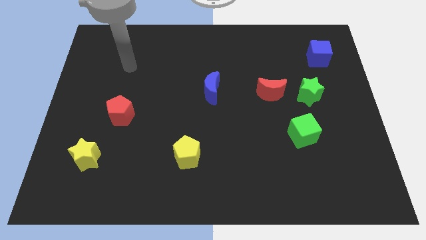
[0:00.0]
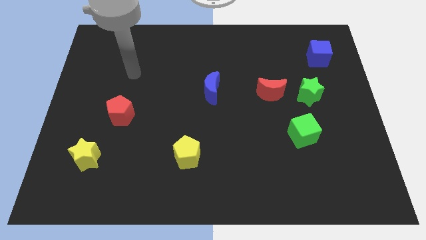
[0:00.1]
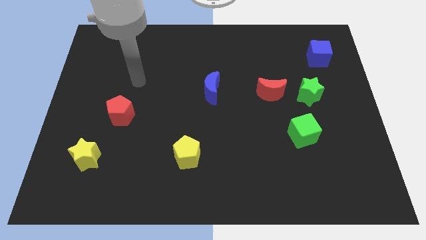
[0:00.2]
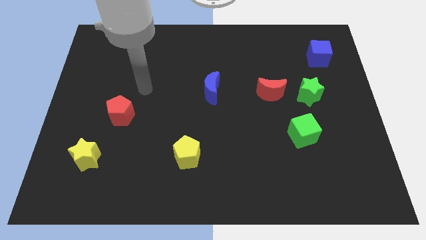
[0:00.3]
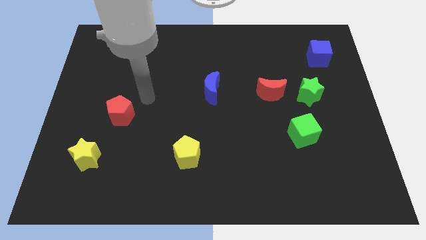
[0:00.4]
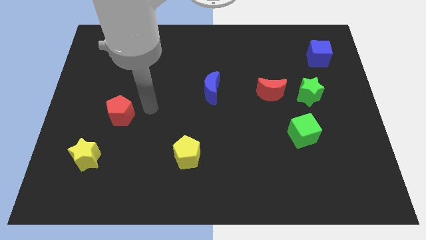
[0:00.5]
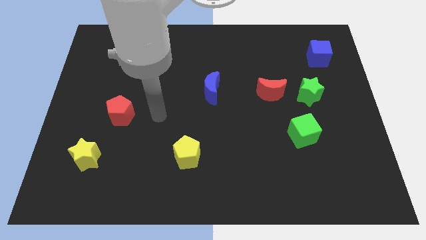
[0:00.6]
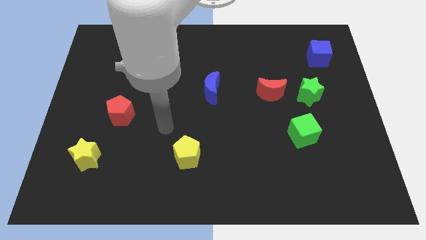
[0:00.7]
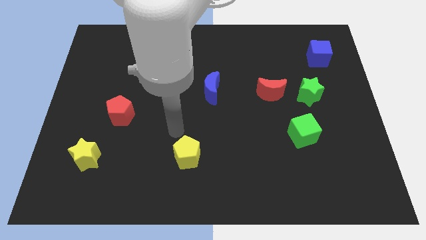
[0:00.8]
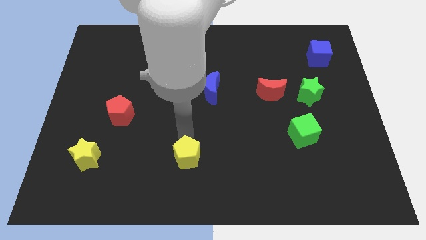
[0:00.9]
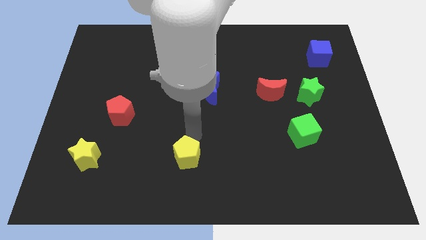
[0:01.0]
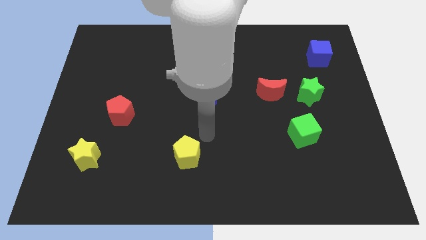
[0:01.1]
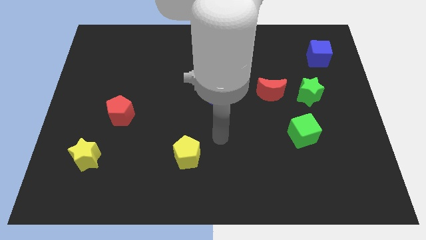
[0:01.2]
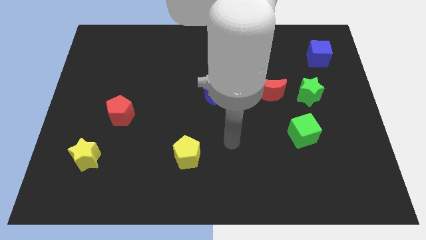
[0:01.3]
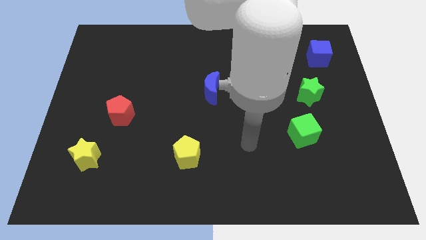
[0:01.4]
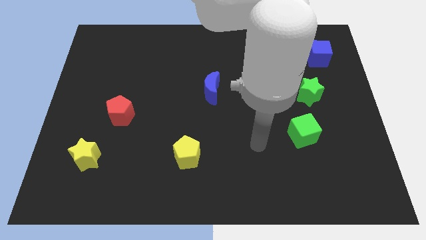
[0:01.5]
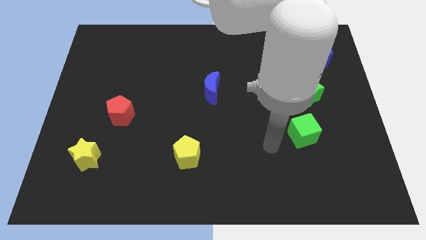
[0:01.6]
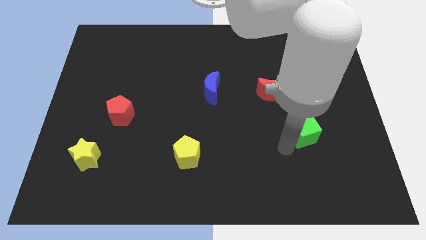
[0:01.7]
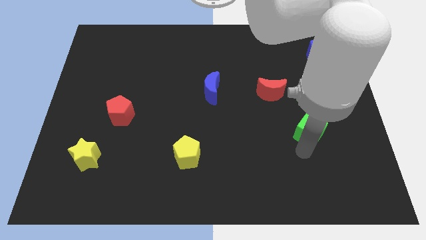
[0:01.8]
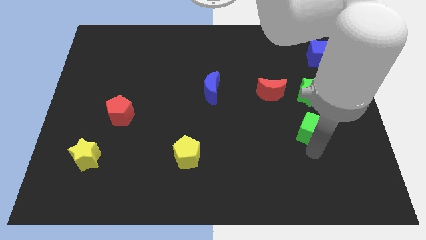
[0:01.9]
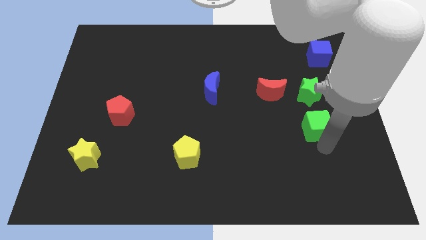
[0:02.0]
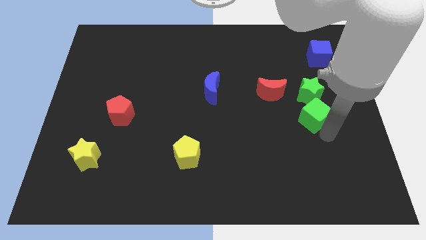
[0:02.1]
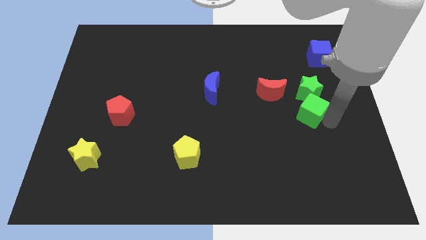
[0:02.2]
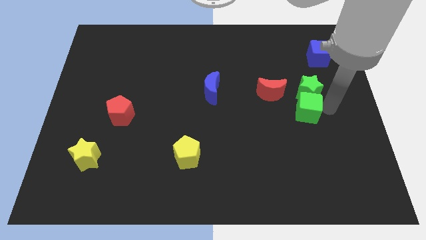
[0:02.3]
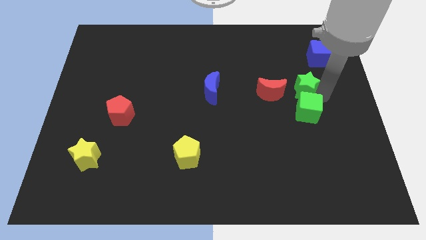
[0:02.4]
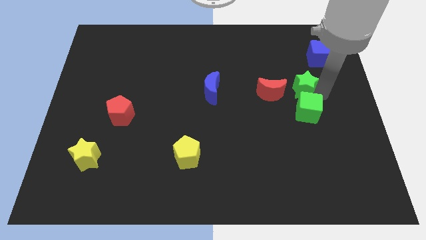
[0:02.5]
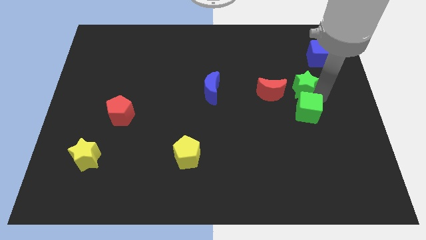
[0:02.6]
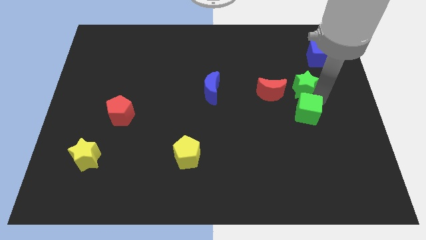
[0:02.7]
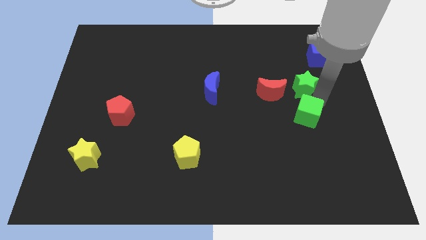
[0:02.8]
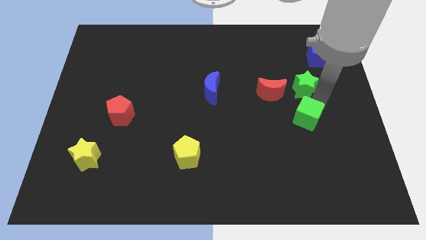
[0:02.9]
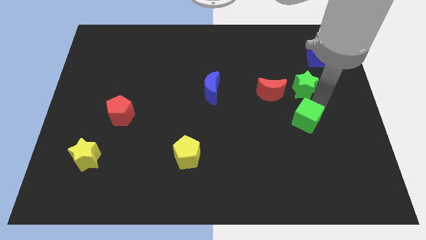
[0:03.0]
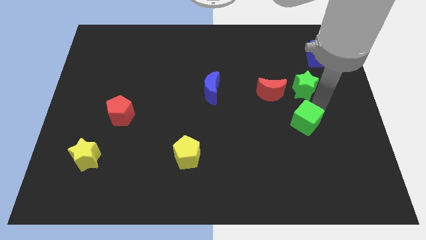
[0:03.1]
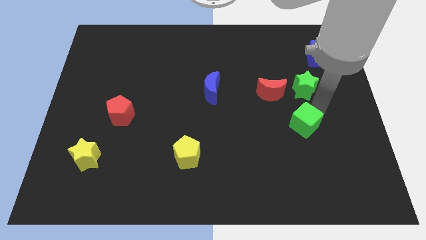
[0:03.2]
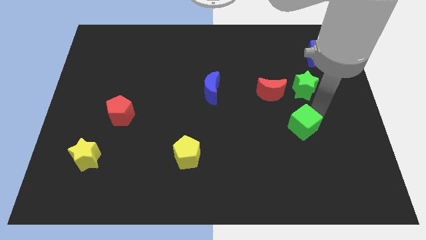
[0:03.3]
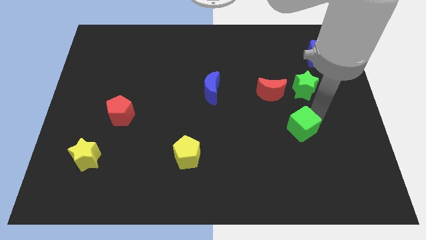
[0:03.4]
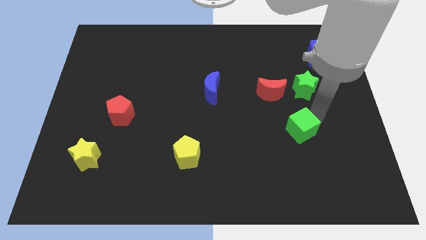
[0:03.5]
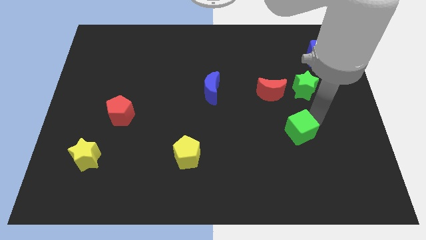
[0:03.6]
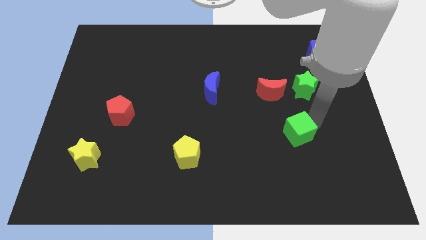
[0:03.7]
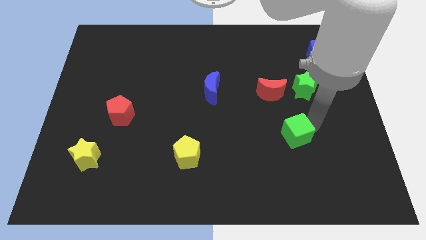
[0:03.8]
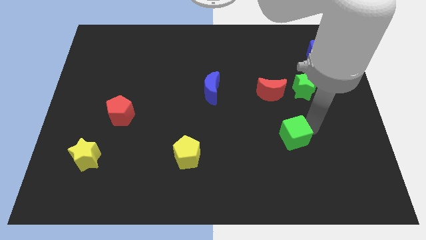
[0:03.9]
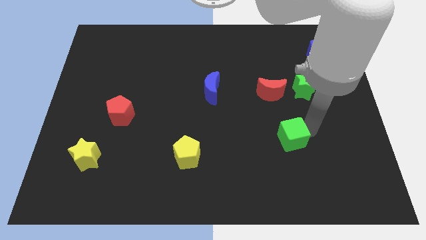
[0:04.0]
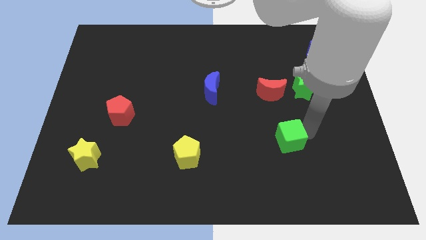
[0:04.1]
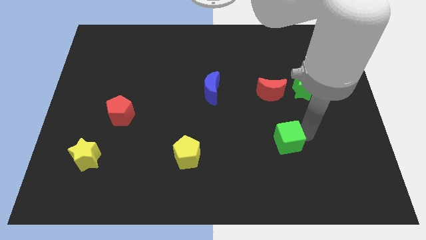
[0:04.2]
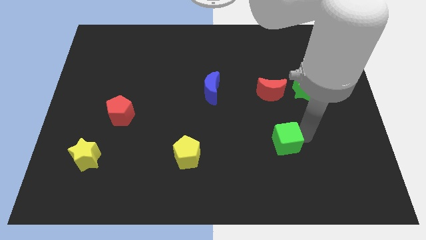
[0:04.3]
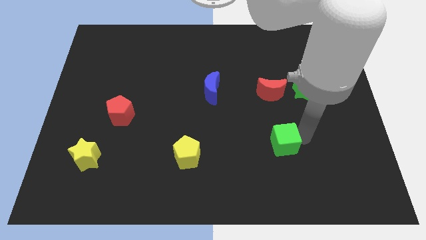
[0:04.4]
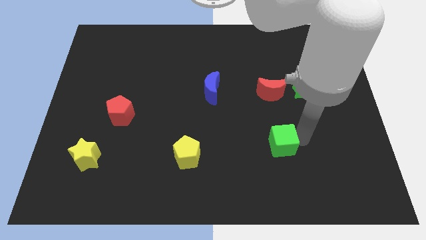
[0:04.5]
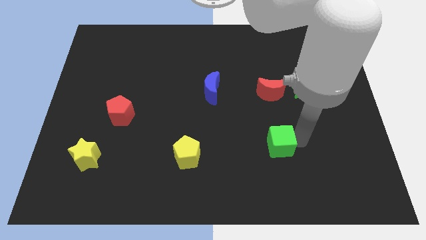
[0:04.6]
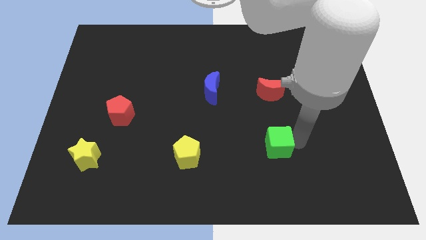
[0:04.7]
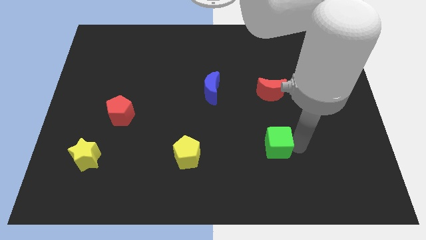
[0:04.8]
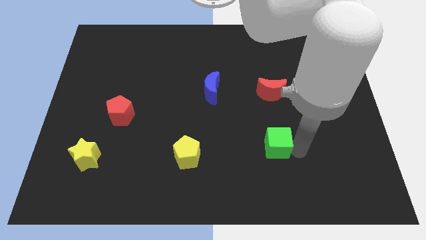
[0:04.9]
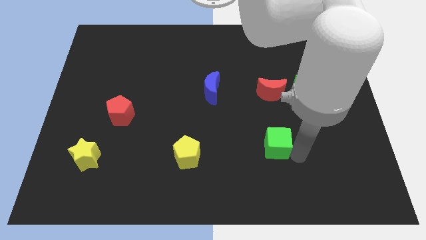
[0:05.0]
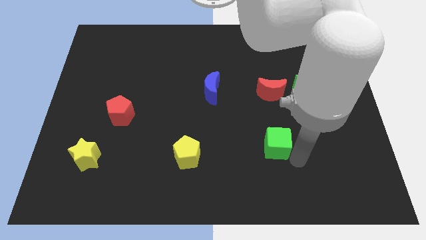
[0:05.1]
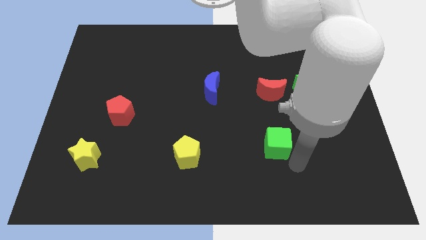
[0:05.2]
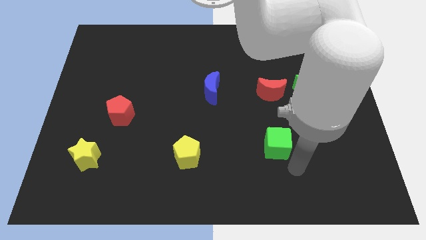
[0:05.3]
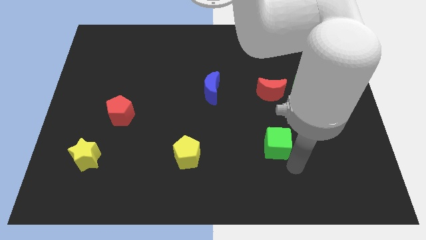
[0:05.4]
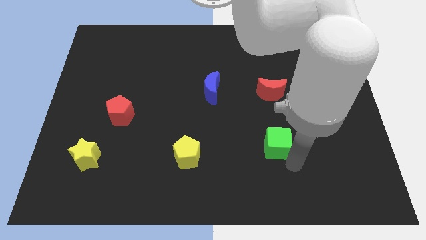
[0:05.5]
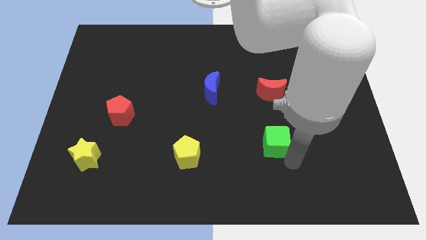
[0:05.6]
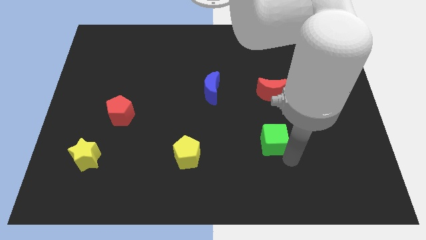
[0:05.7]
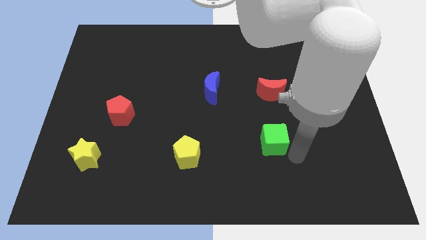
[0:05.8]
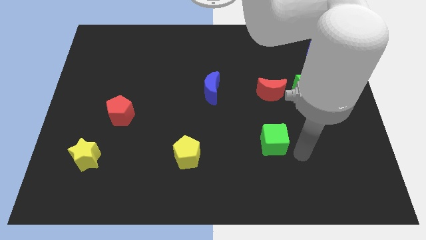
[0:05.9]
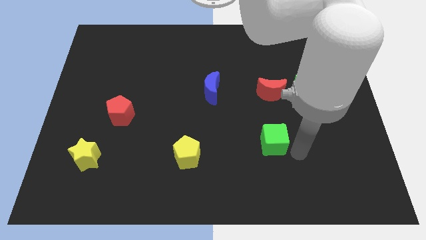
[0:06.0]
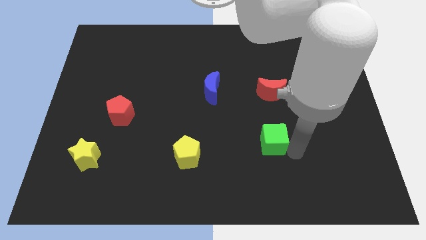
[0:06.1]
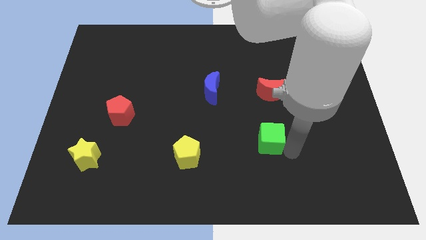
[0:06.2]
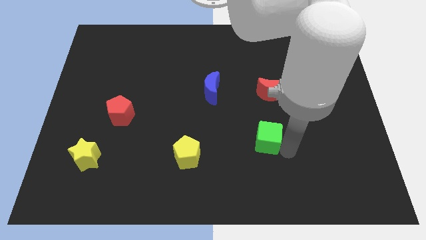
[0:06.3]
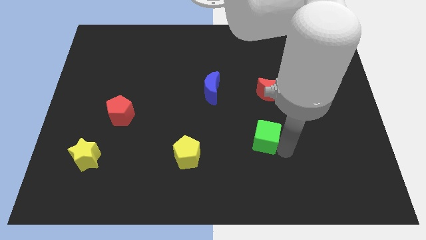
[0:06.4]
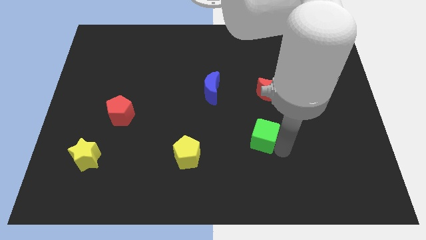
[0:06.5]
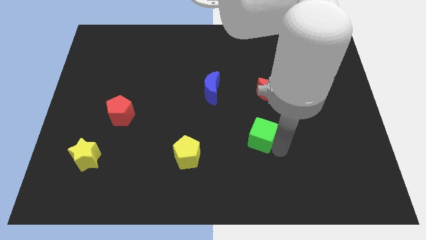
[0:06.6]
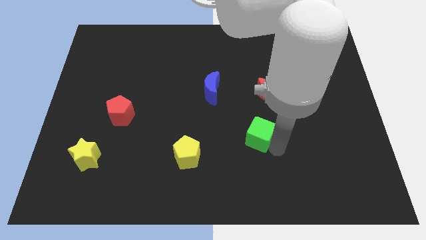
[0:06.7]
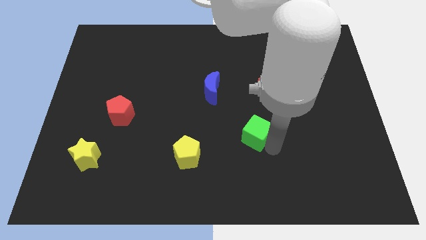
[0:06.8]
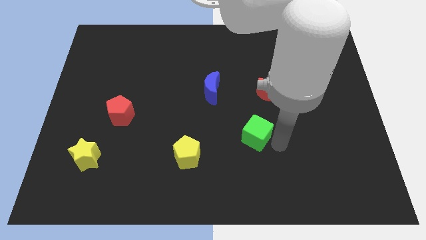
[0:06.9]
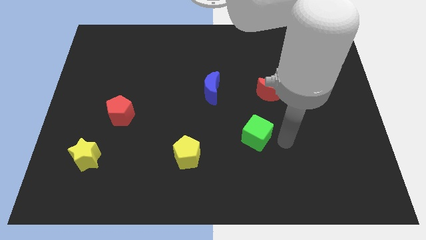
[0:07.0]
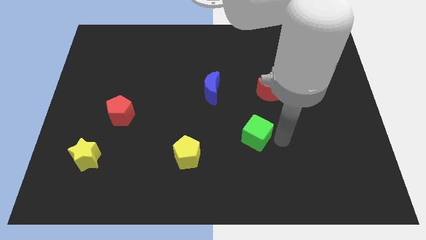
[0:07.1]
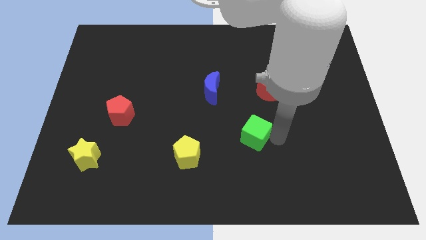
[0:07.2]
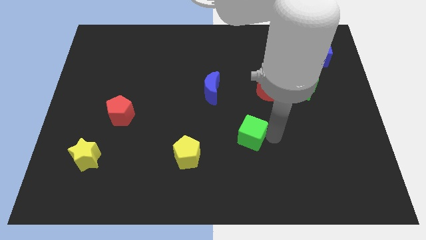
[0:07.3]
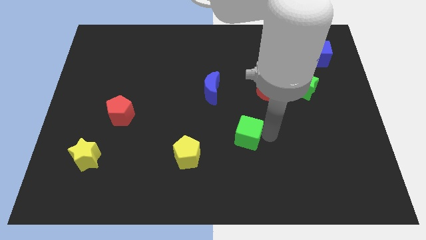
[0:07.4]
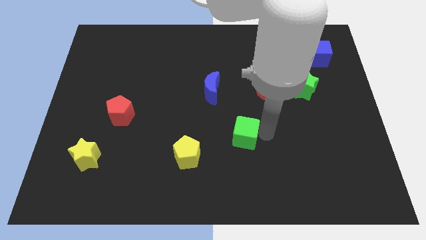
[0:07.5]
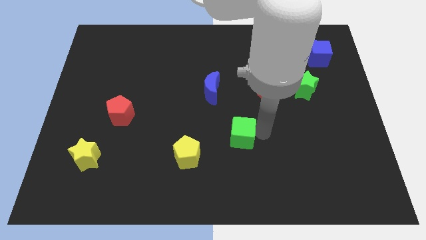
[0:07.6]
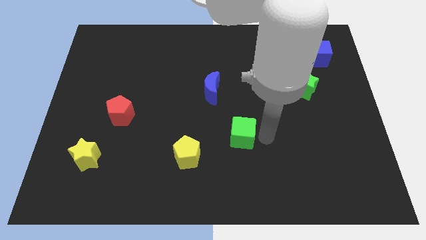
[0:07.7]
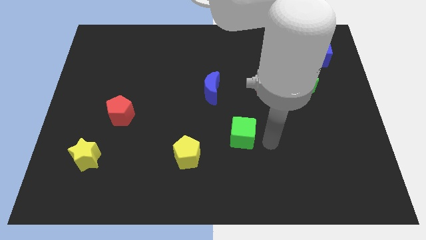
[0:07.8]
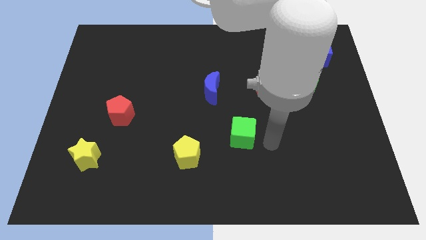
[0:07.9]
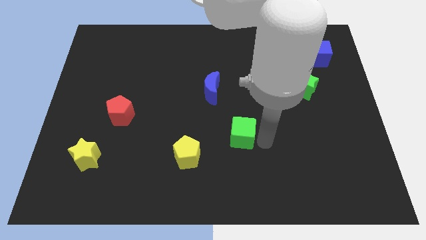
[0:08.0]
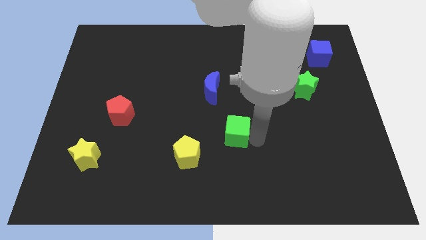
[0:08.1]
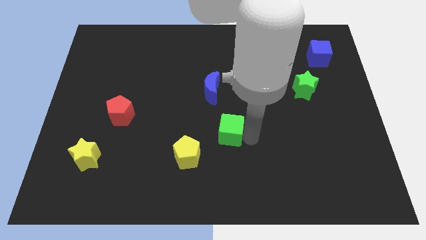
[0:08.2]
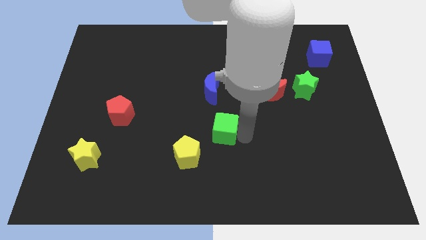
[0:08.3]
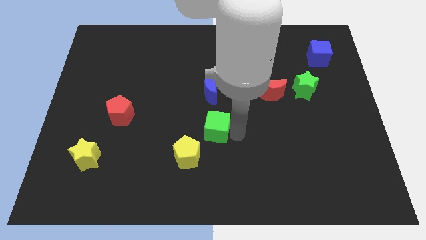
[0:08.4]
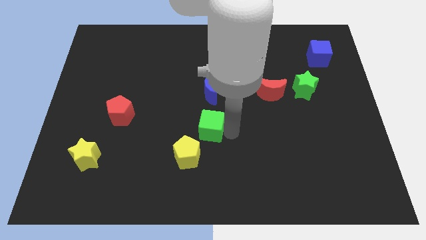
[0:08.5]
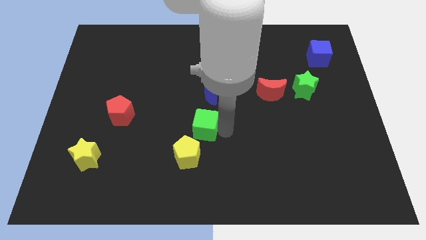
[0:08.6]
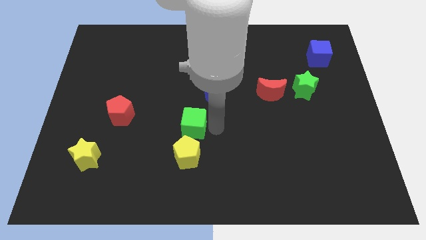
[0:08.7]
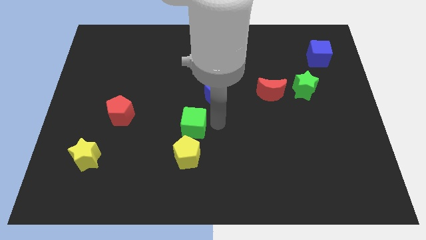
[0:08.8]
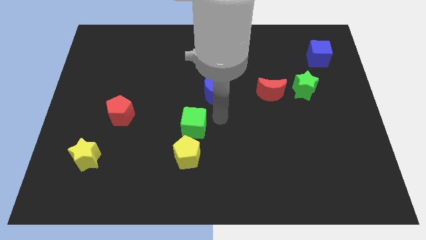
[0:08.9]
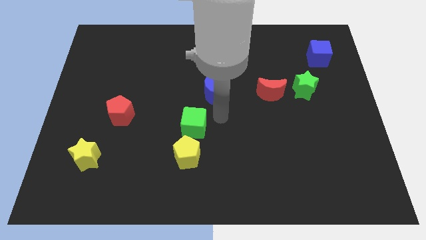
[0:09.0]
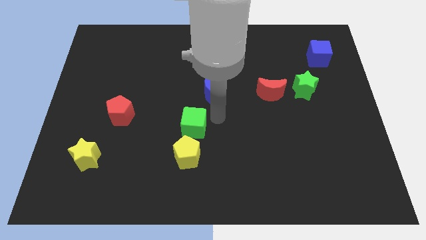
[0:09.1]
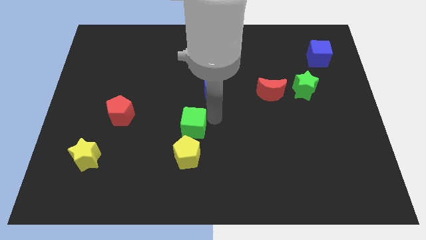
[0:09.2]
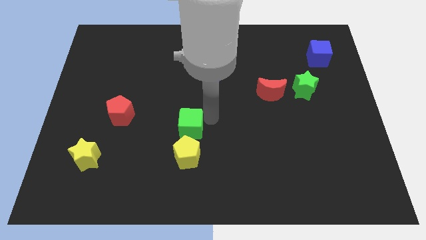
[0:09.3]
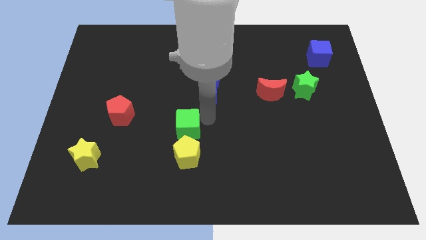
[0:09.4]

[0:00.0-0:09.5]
push the green cube to the top left side of the yellow pentagon
